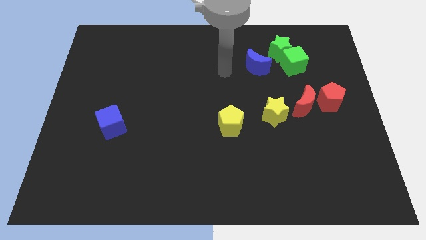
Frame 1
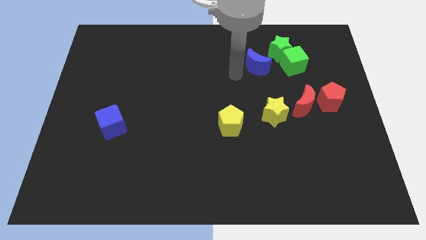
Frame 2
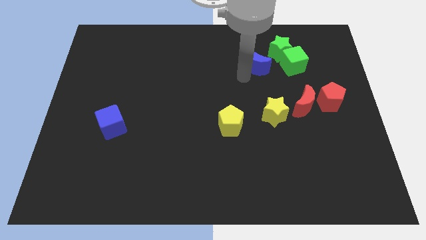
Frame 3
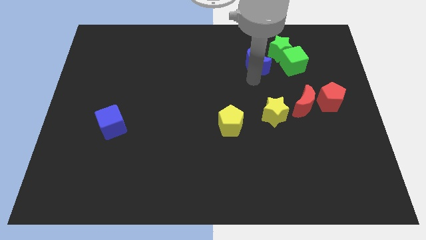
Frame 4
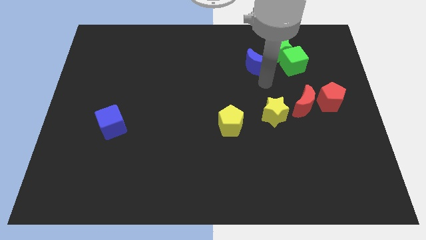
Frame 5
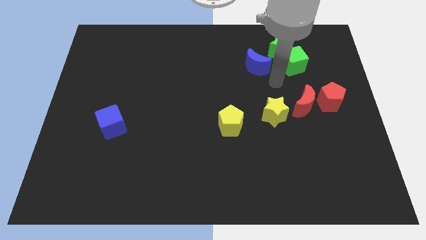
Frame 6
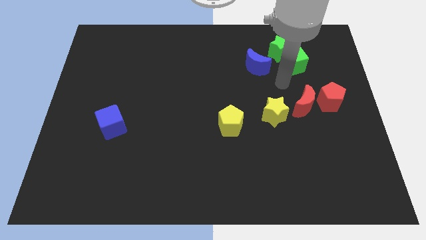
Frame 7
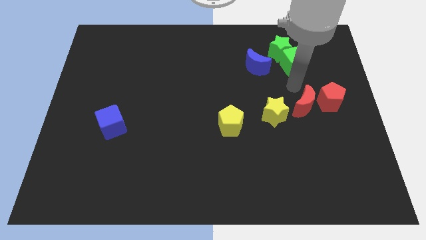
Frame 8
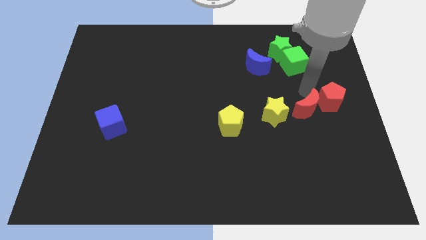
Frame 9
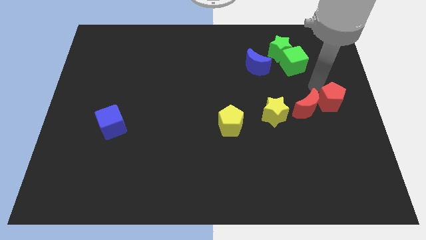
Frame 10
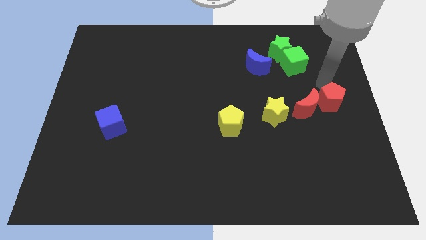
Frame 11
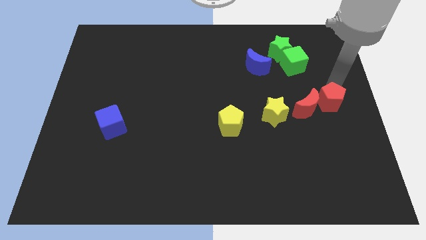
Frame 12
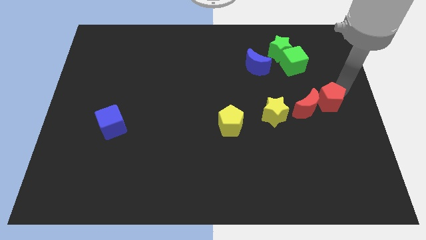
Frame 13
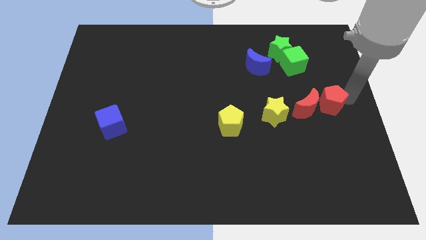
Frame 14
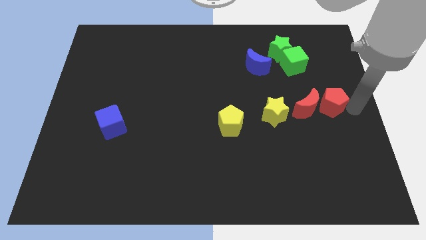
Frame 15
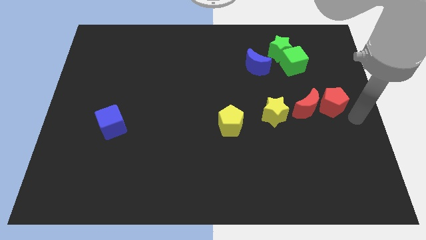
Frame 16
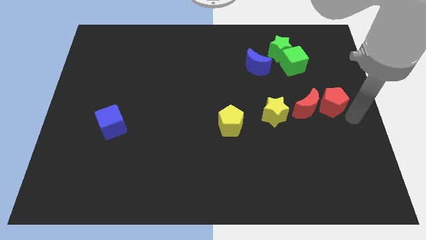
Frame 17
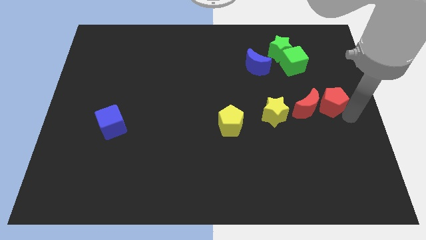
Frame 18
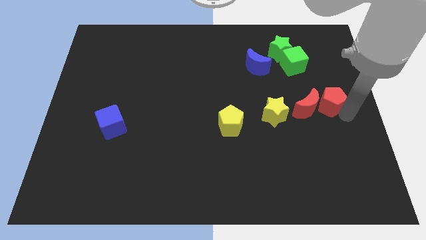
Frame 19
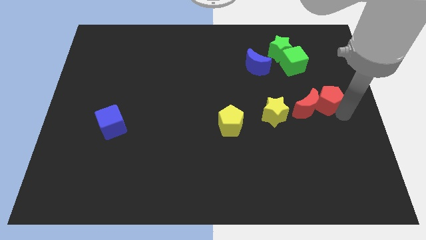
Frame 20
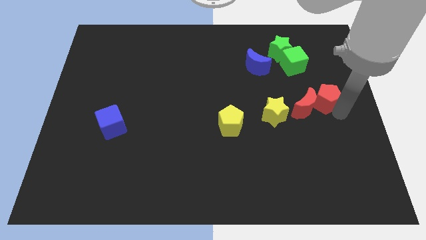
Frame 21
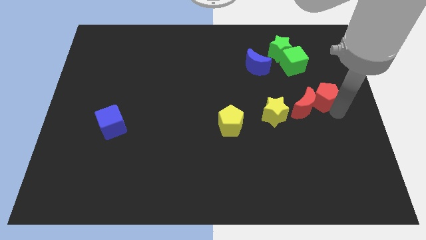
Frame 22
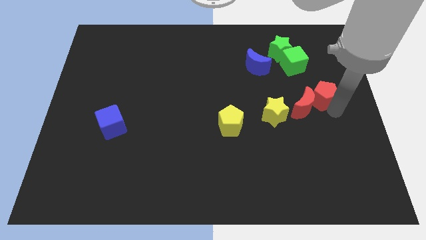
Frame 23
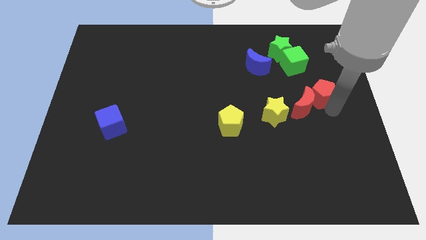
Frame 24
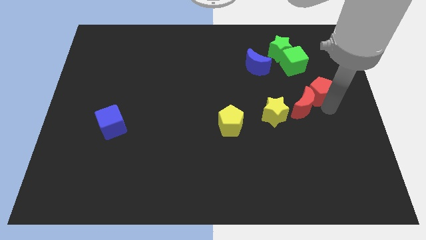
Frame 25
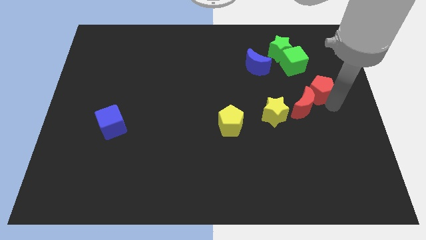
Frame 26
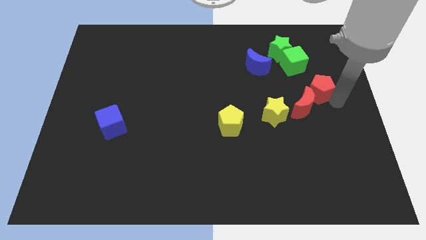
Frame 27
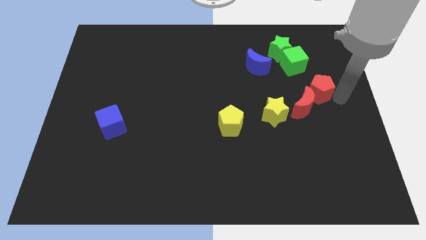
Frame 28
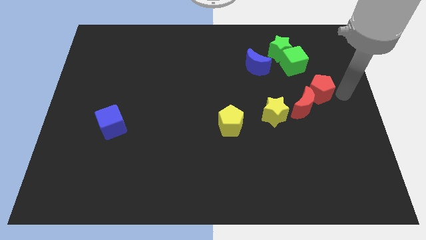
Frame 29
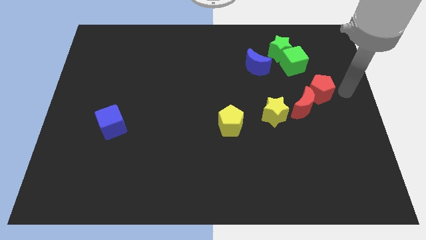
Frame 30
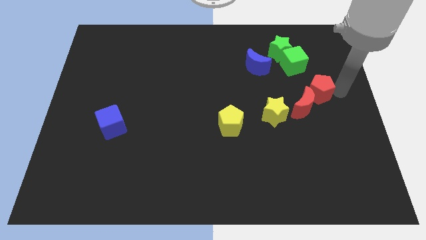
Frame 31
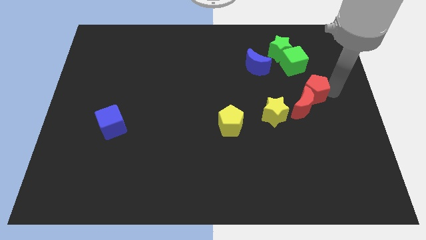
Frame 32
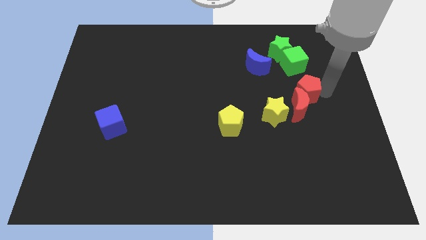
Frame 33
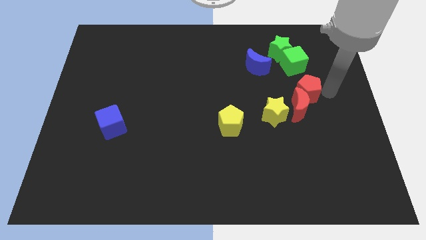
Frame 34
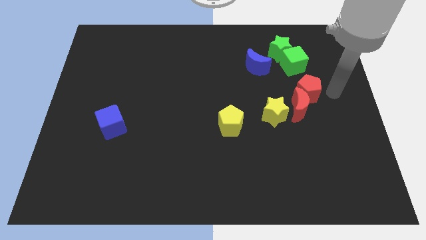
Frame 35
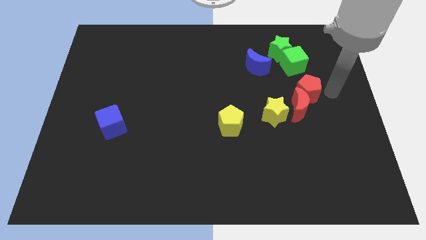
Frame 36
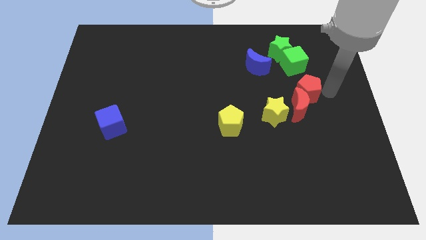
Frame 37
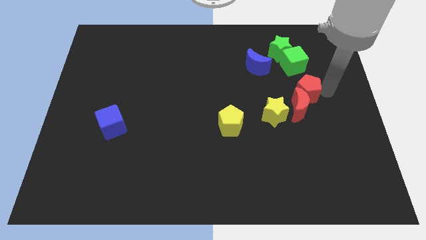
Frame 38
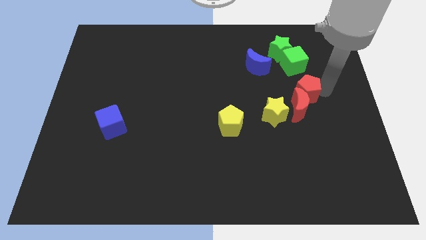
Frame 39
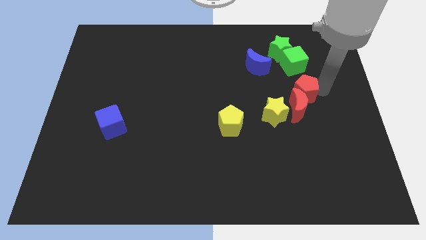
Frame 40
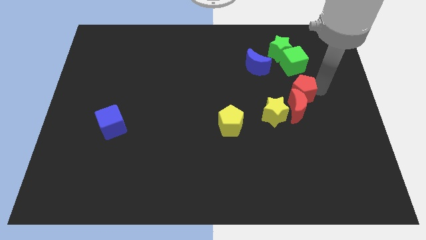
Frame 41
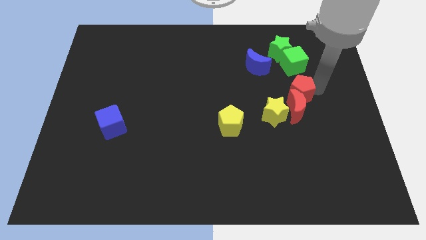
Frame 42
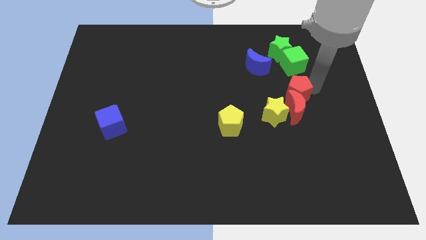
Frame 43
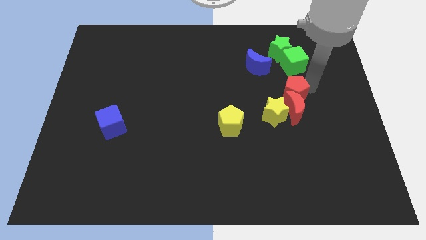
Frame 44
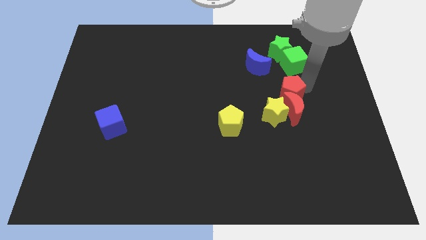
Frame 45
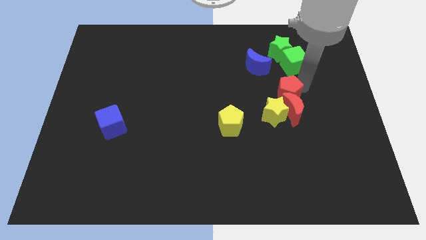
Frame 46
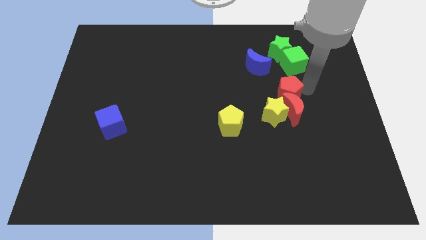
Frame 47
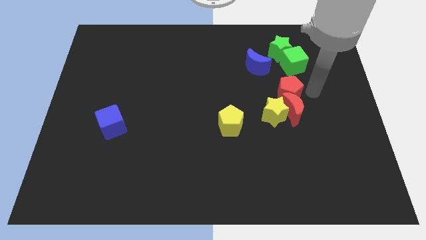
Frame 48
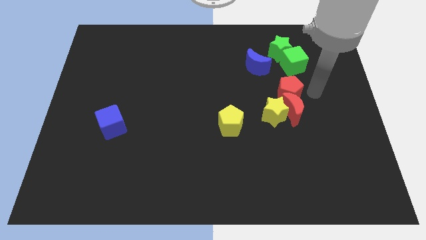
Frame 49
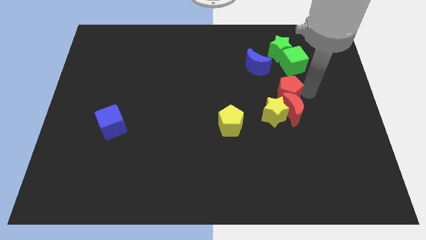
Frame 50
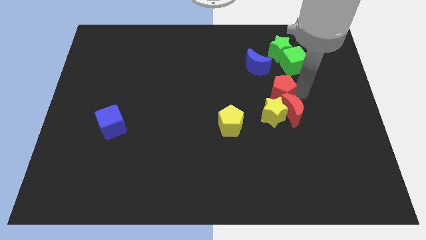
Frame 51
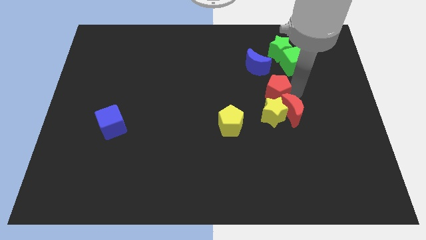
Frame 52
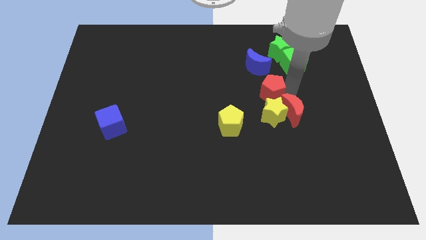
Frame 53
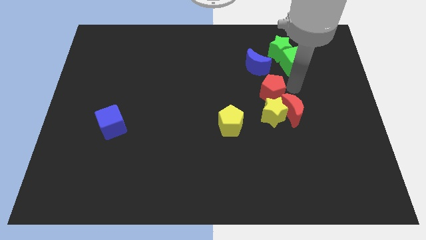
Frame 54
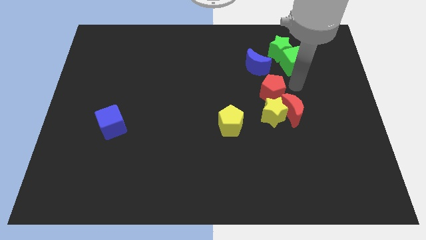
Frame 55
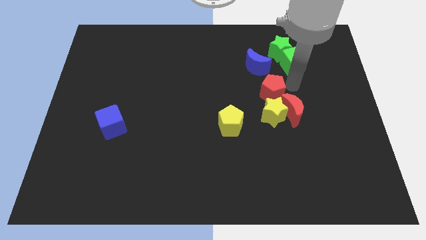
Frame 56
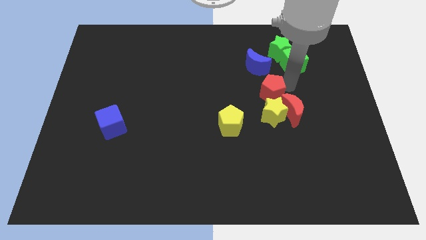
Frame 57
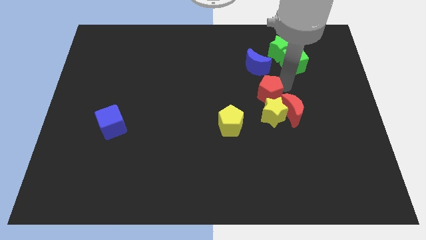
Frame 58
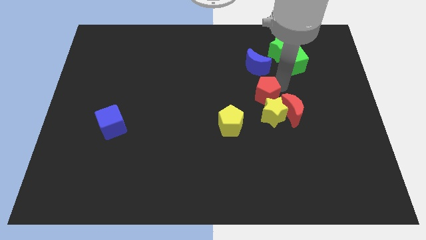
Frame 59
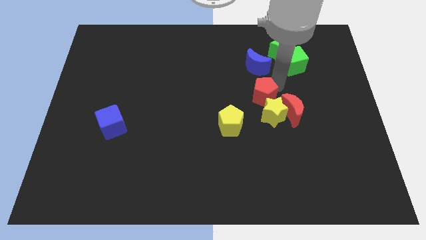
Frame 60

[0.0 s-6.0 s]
put the red pentagon to the center

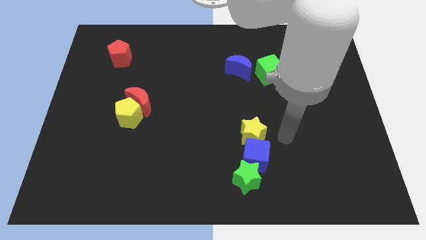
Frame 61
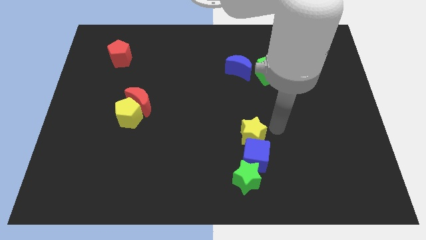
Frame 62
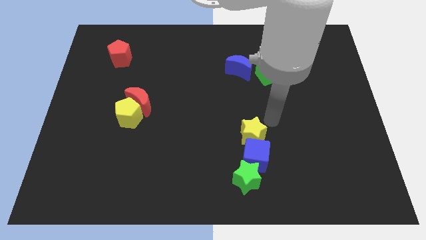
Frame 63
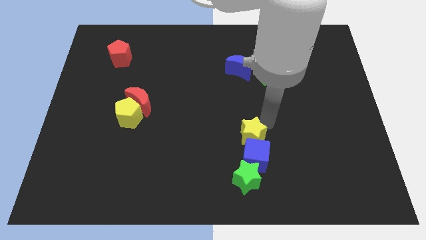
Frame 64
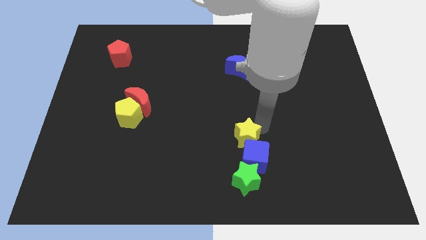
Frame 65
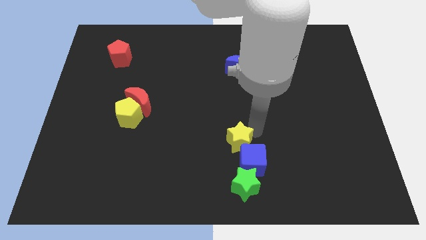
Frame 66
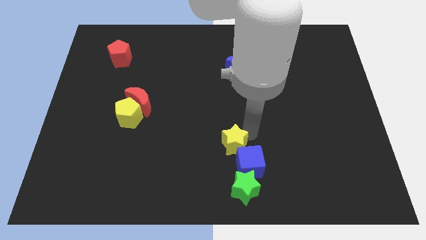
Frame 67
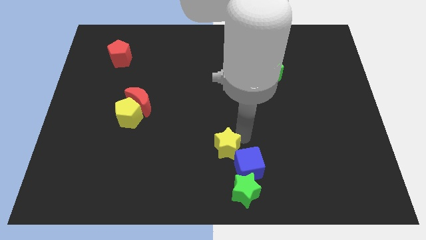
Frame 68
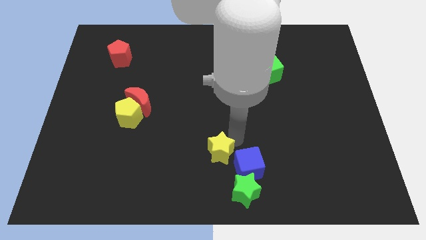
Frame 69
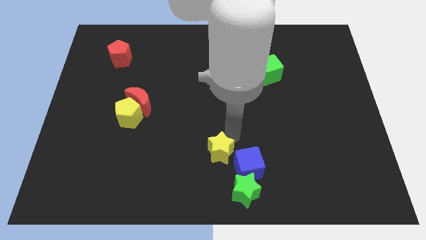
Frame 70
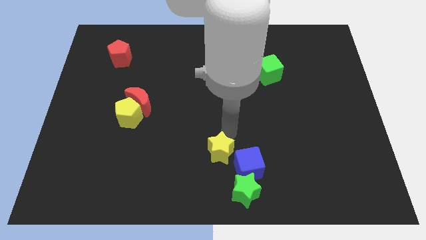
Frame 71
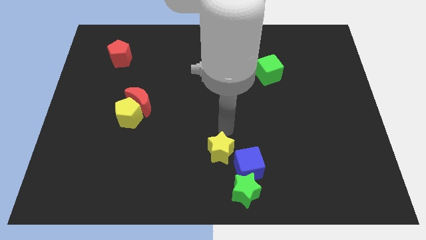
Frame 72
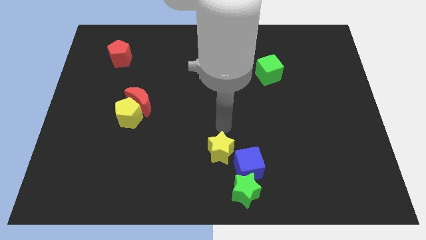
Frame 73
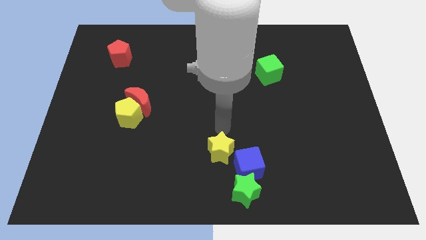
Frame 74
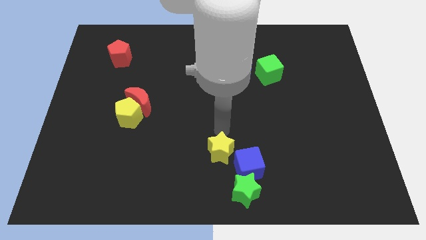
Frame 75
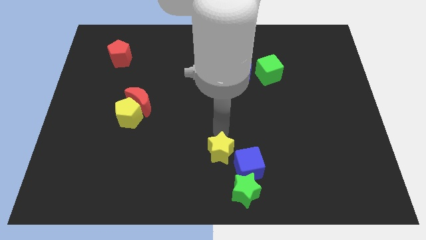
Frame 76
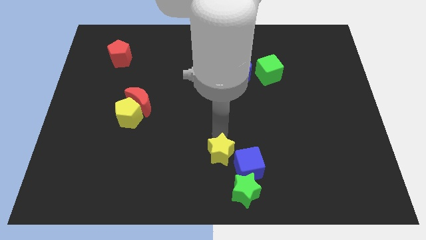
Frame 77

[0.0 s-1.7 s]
push the yellow star to the bottom side
